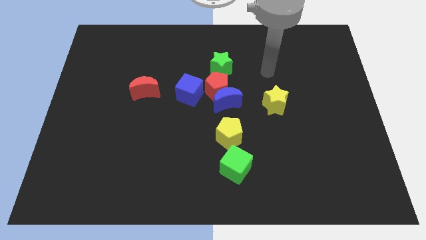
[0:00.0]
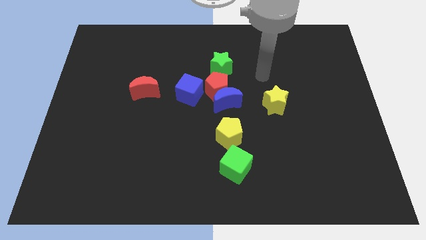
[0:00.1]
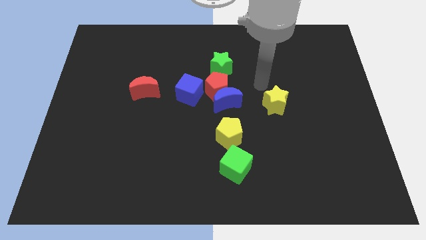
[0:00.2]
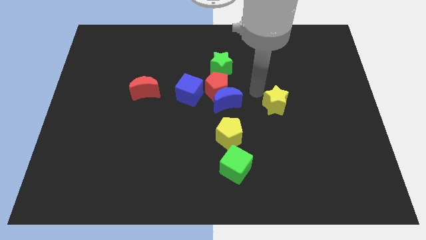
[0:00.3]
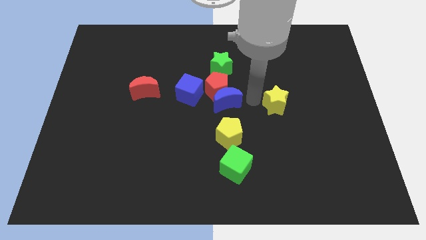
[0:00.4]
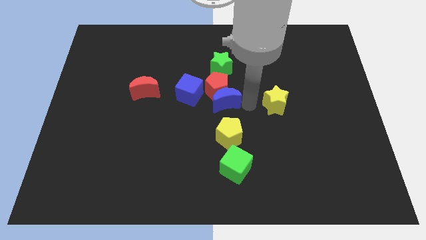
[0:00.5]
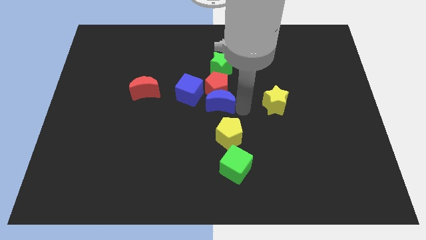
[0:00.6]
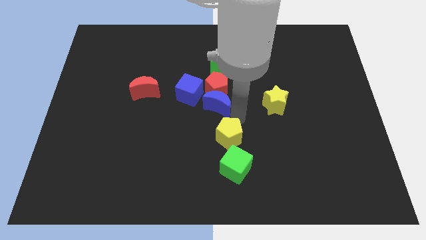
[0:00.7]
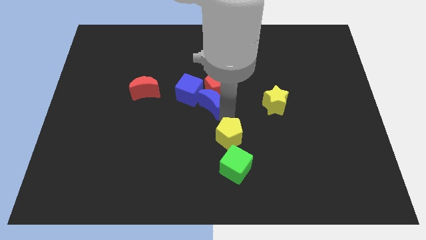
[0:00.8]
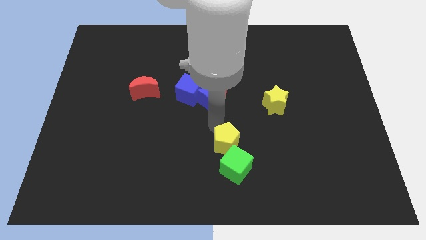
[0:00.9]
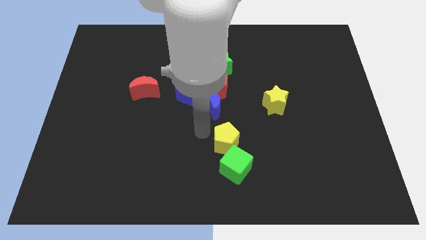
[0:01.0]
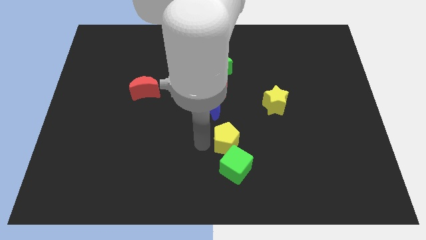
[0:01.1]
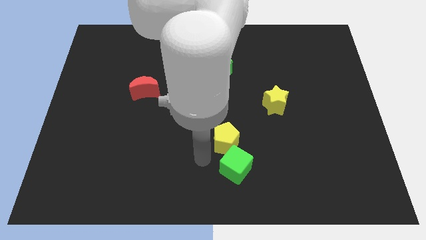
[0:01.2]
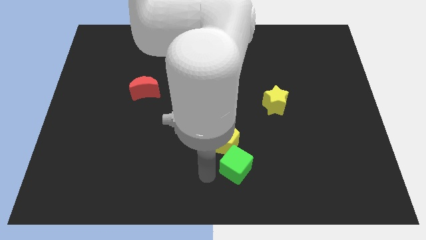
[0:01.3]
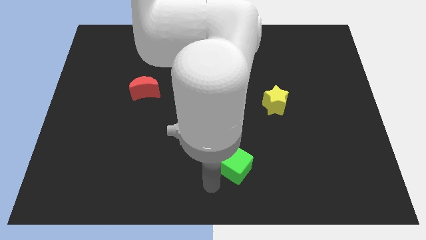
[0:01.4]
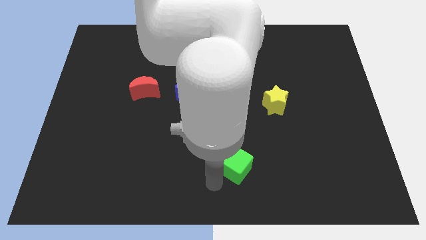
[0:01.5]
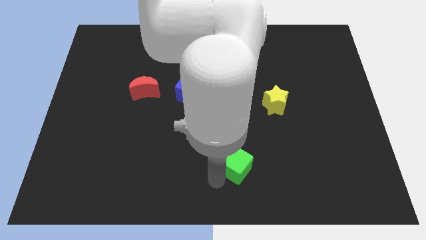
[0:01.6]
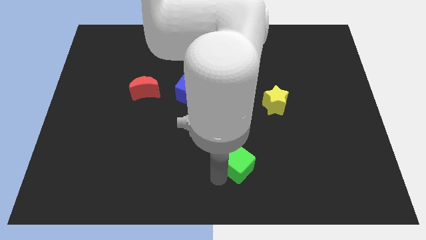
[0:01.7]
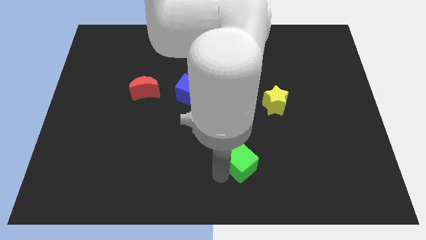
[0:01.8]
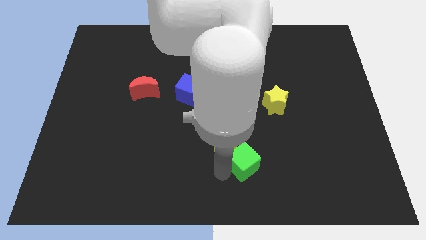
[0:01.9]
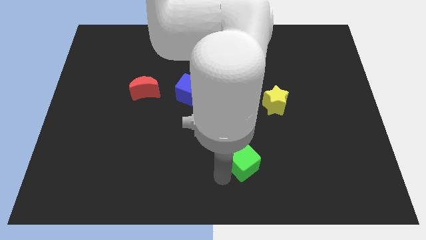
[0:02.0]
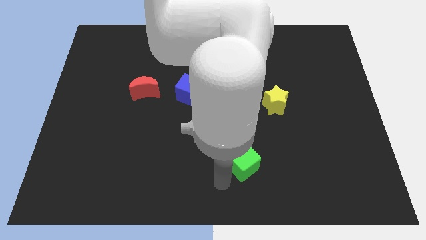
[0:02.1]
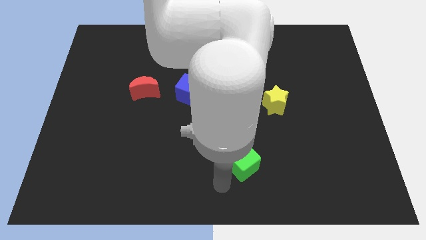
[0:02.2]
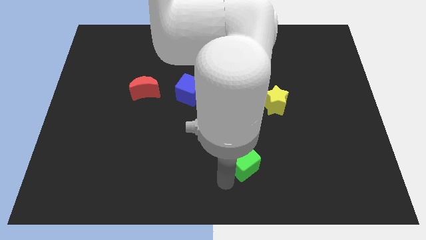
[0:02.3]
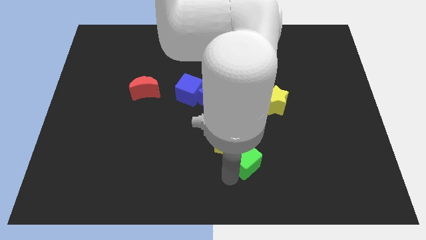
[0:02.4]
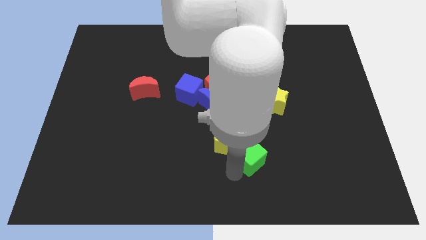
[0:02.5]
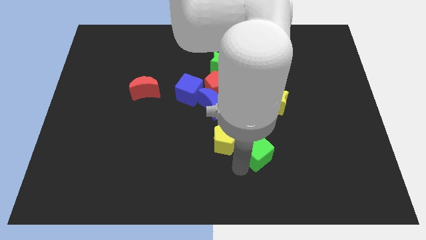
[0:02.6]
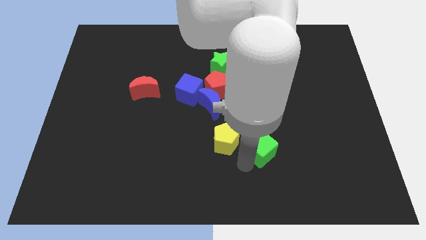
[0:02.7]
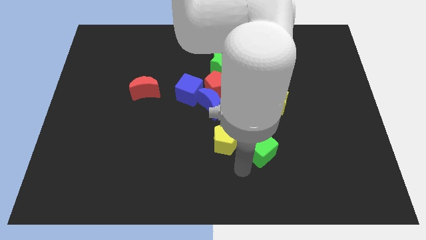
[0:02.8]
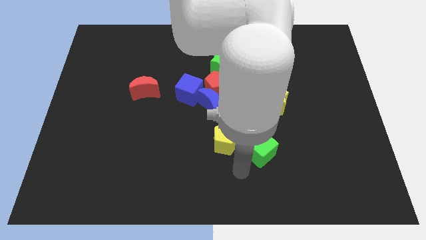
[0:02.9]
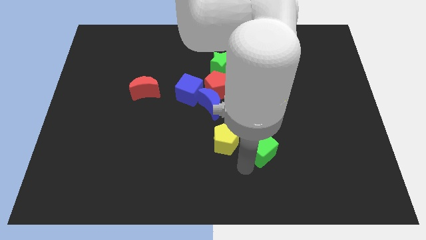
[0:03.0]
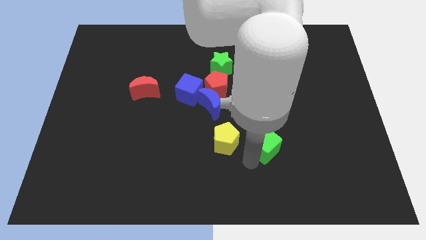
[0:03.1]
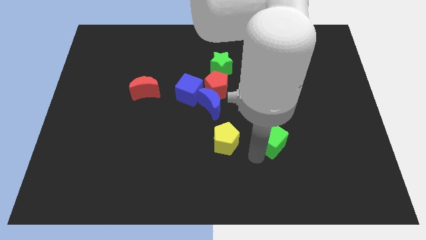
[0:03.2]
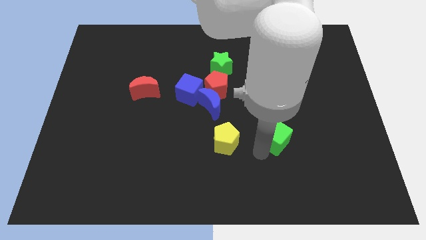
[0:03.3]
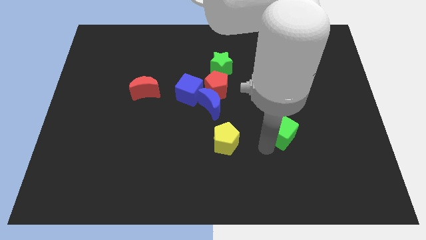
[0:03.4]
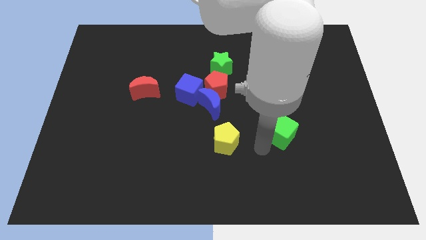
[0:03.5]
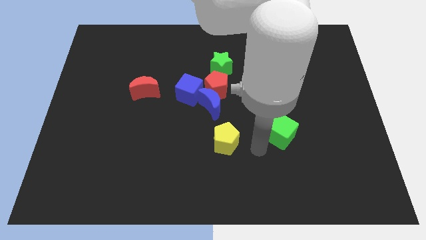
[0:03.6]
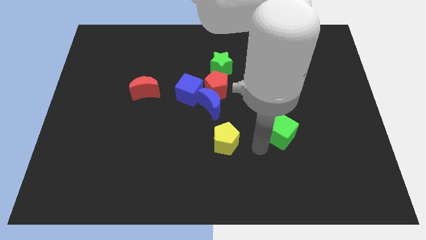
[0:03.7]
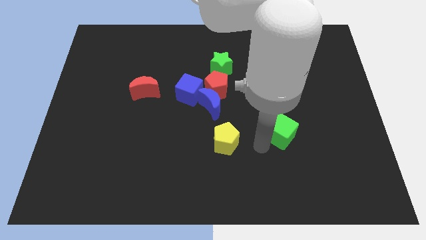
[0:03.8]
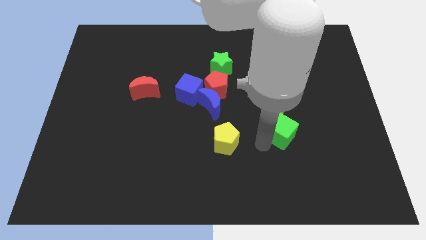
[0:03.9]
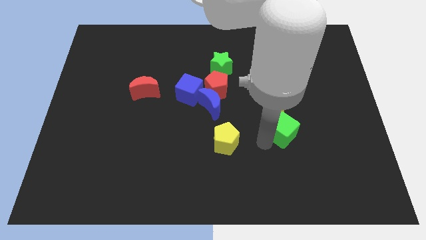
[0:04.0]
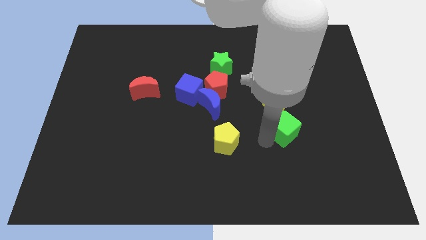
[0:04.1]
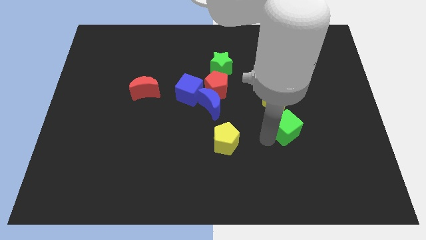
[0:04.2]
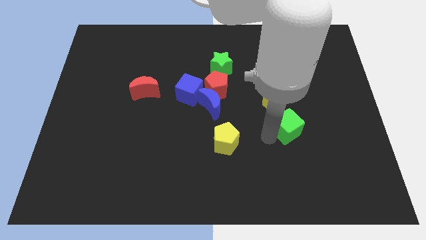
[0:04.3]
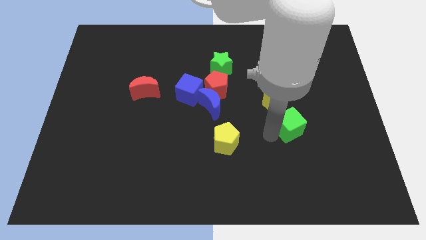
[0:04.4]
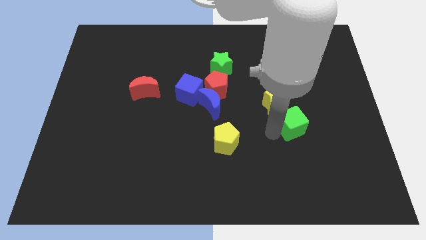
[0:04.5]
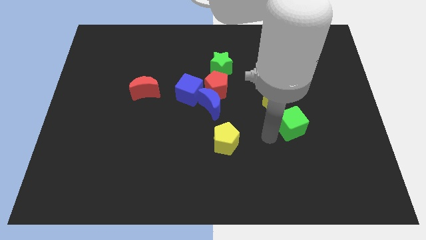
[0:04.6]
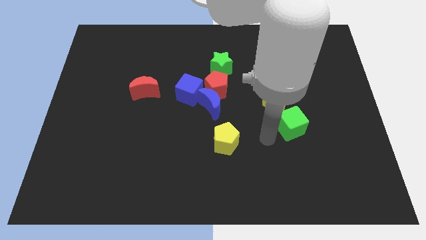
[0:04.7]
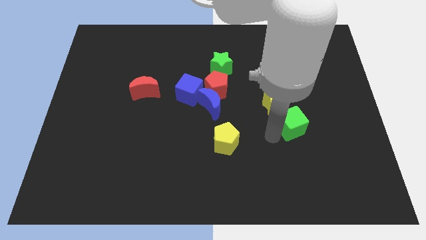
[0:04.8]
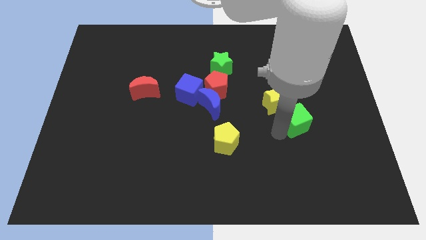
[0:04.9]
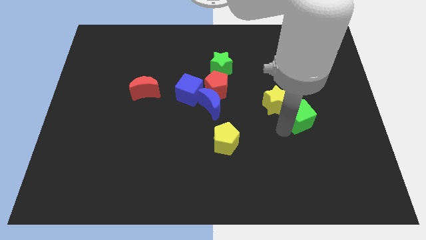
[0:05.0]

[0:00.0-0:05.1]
move the green cube just right of the yellow star
